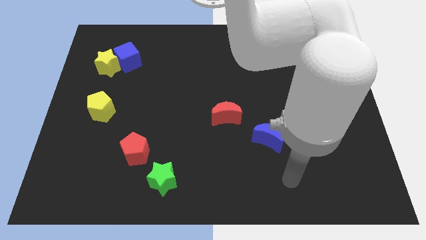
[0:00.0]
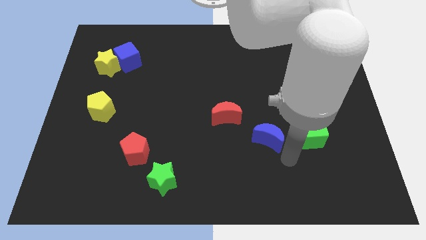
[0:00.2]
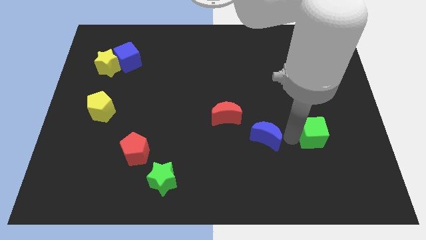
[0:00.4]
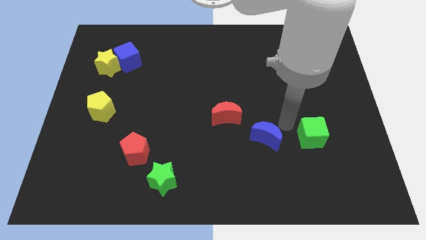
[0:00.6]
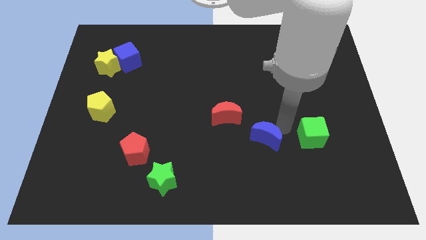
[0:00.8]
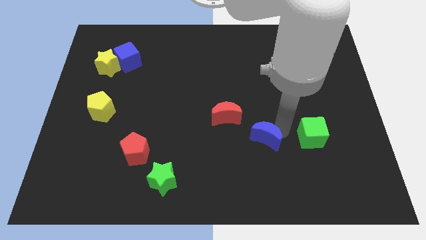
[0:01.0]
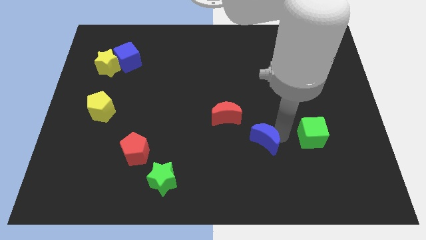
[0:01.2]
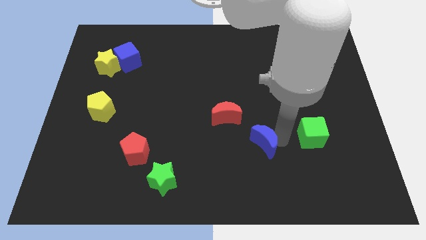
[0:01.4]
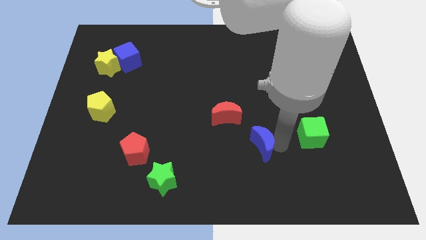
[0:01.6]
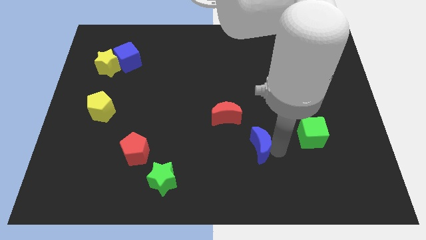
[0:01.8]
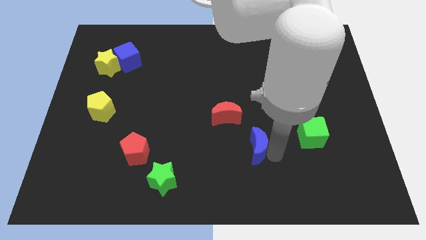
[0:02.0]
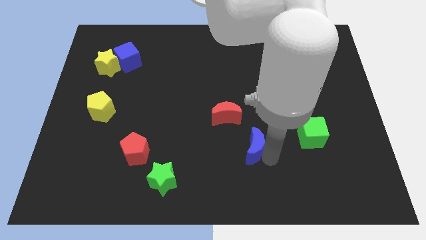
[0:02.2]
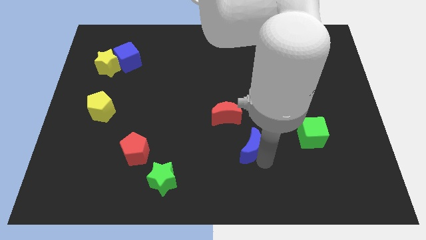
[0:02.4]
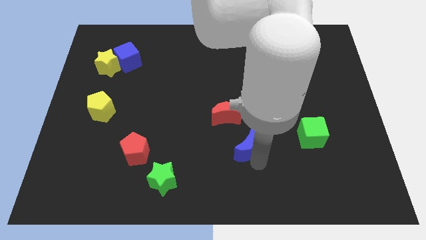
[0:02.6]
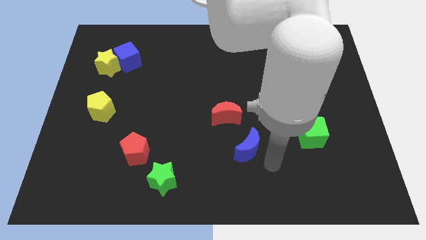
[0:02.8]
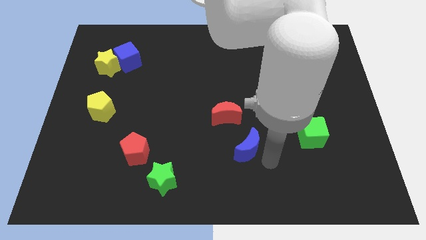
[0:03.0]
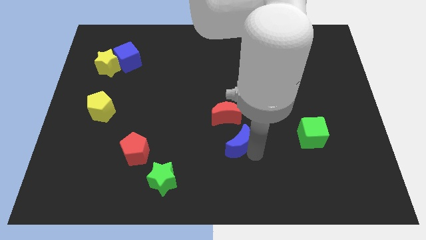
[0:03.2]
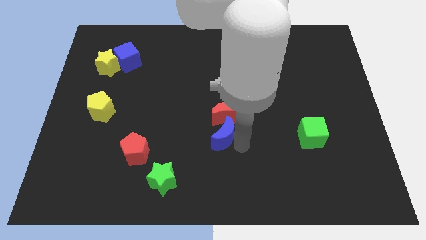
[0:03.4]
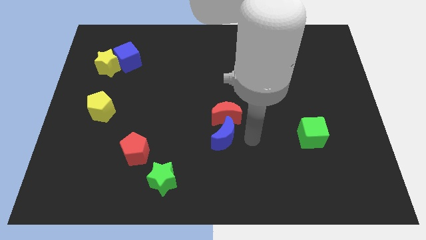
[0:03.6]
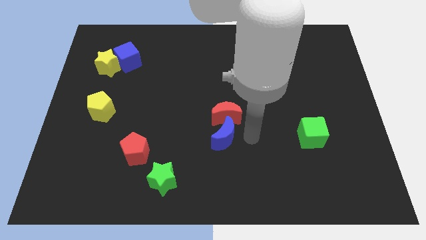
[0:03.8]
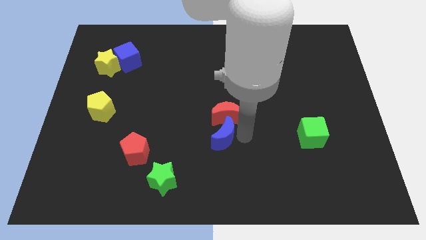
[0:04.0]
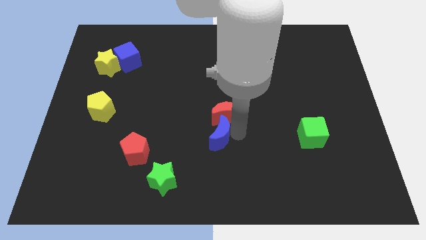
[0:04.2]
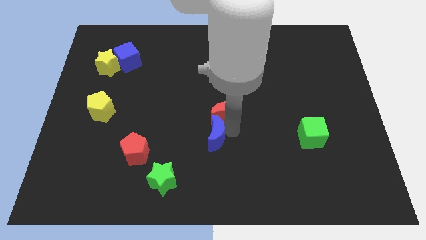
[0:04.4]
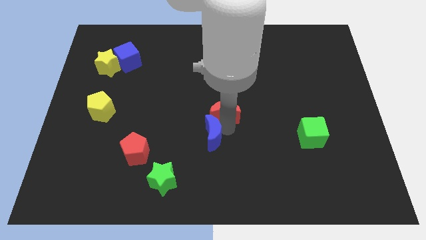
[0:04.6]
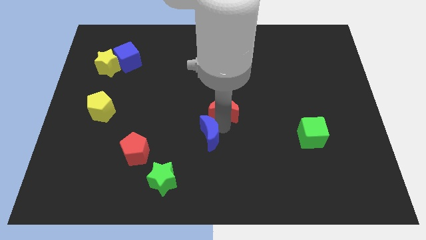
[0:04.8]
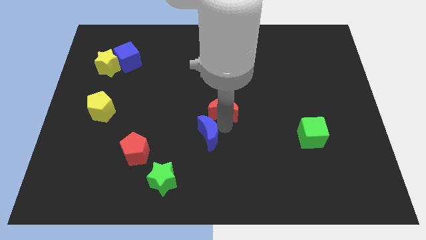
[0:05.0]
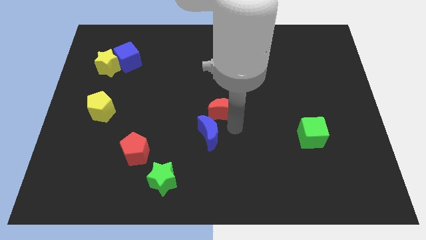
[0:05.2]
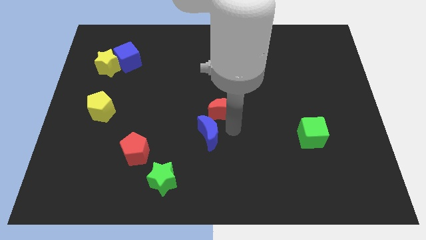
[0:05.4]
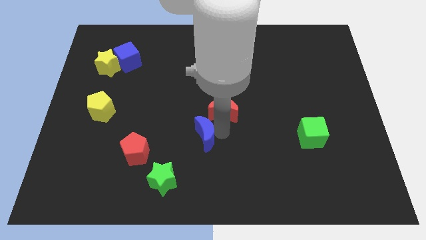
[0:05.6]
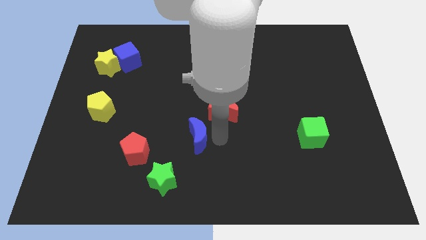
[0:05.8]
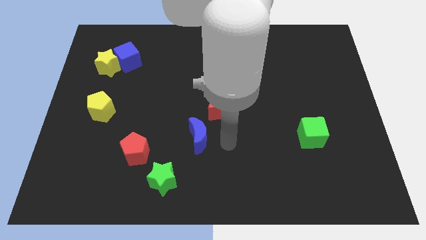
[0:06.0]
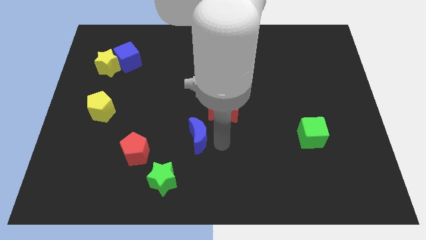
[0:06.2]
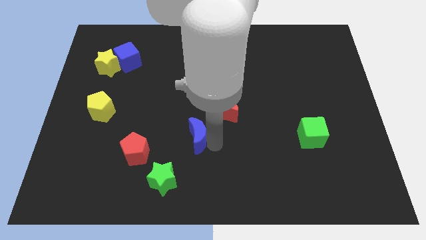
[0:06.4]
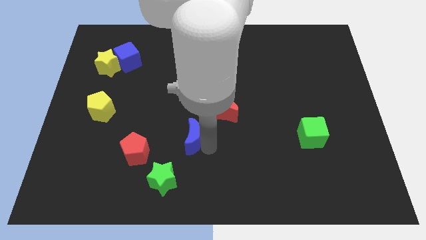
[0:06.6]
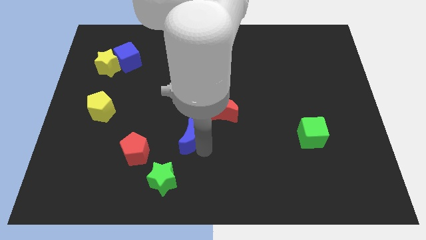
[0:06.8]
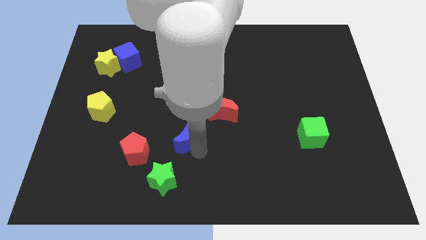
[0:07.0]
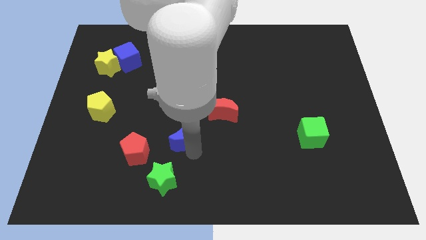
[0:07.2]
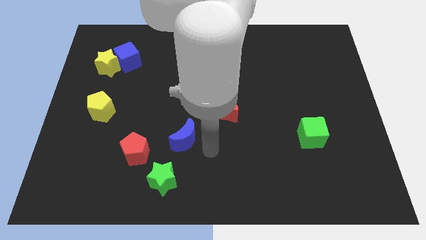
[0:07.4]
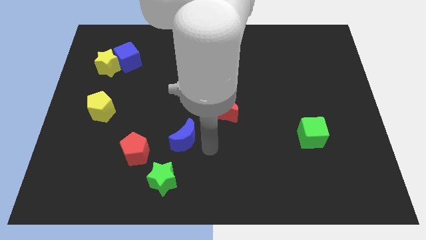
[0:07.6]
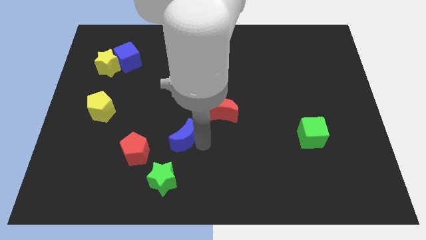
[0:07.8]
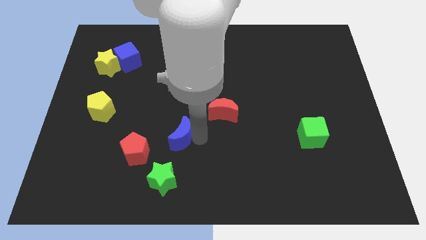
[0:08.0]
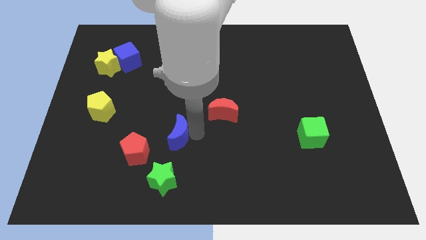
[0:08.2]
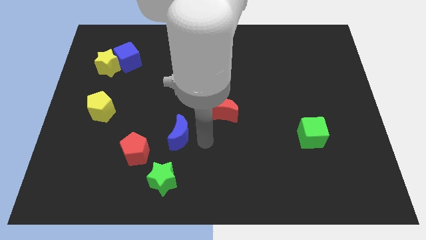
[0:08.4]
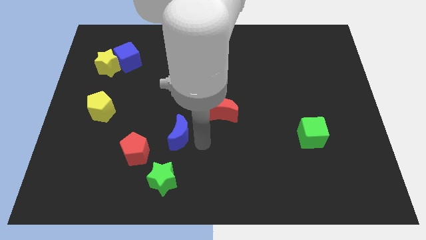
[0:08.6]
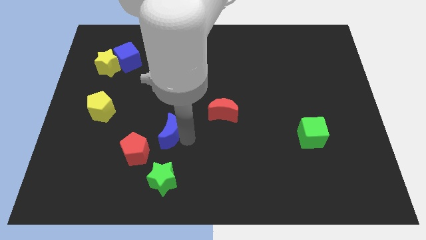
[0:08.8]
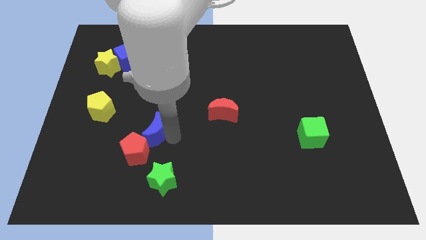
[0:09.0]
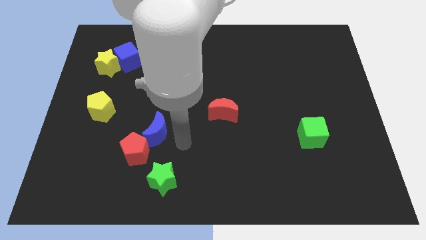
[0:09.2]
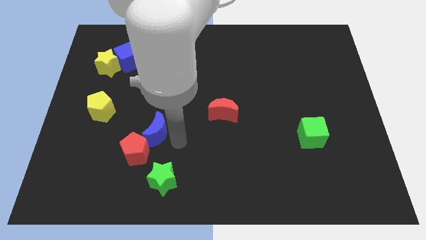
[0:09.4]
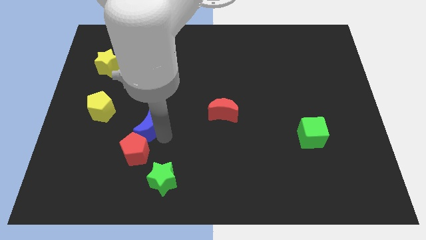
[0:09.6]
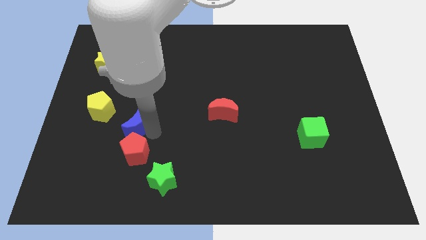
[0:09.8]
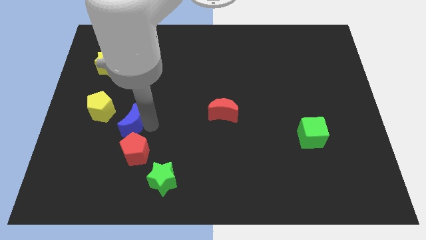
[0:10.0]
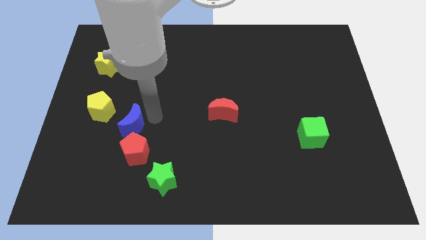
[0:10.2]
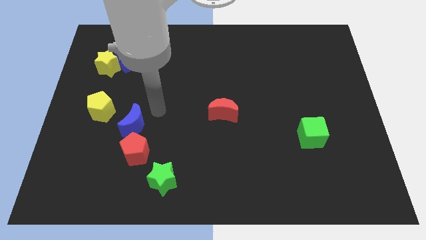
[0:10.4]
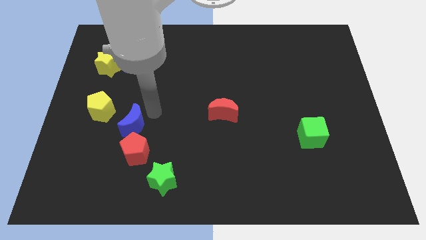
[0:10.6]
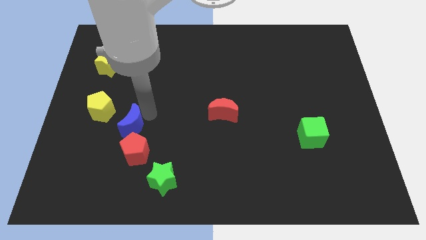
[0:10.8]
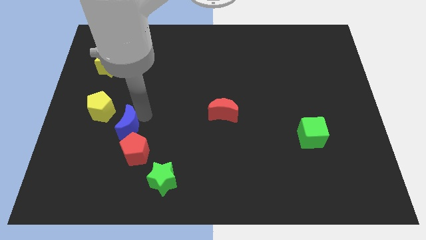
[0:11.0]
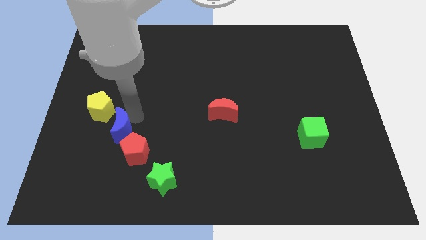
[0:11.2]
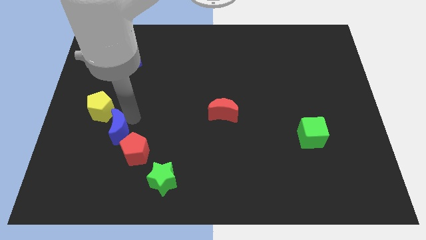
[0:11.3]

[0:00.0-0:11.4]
move the blue moon below the yellow pentagon

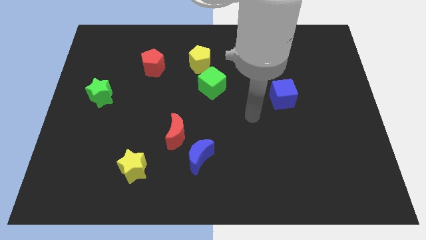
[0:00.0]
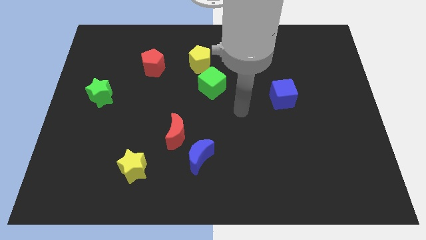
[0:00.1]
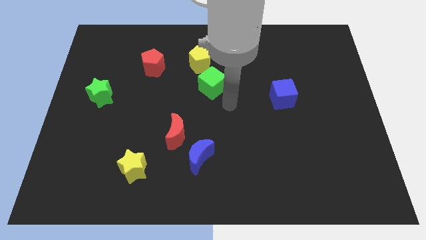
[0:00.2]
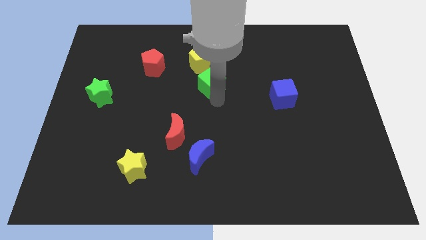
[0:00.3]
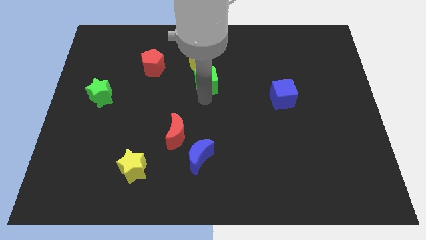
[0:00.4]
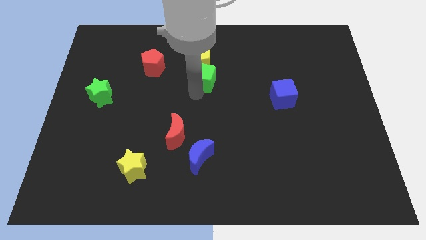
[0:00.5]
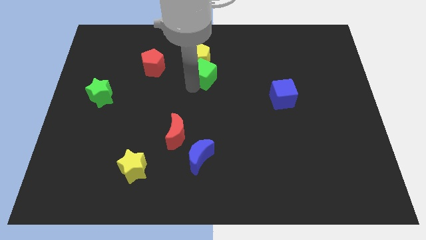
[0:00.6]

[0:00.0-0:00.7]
push the red pentagon to the left of the green cube
